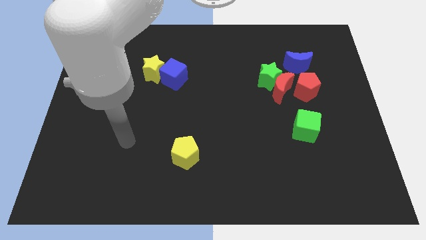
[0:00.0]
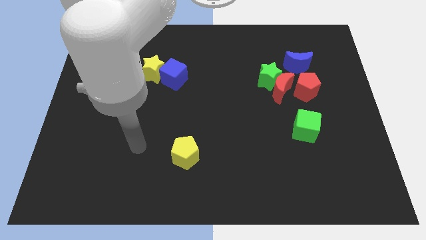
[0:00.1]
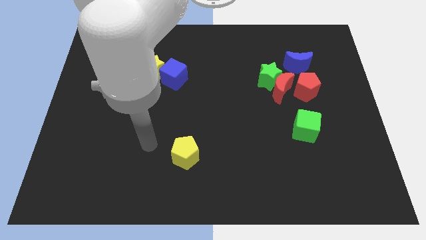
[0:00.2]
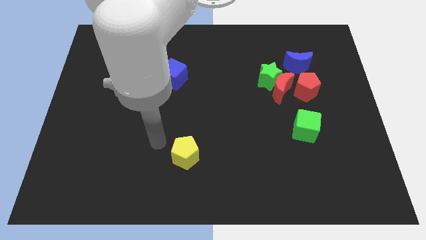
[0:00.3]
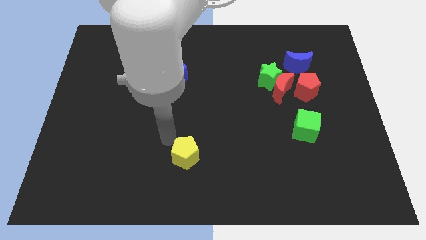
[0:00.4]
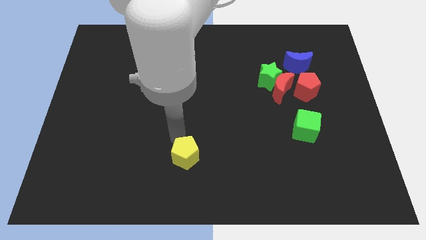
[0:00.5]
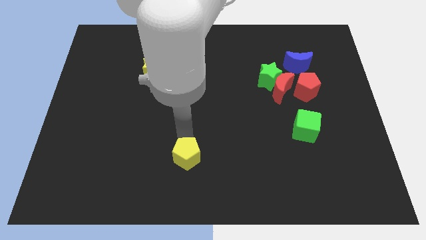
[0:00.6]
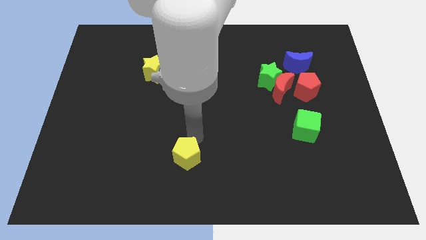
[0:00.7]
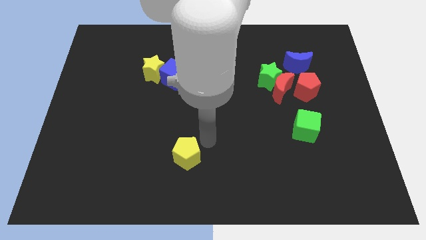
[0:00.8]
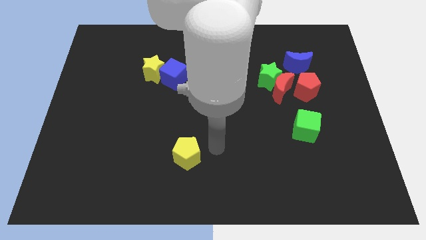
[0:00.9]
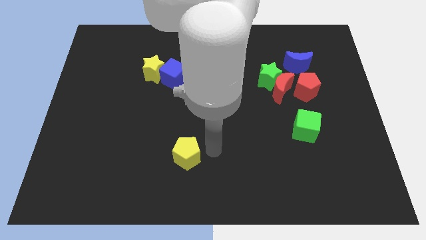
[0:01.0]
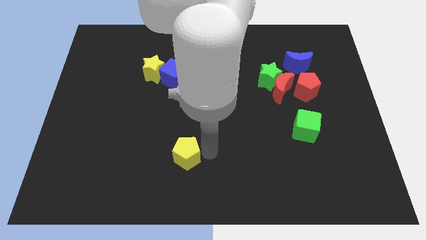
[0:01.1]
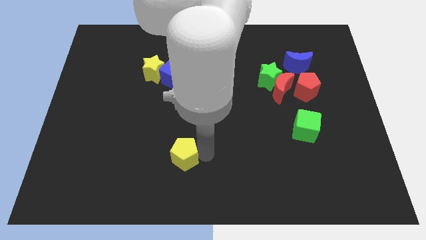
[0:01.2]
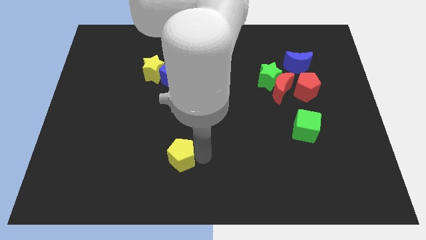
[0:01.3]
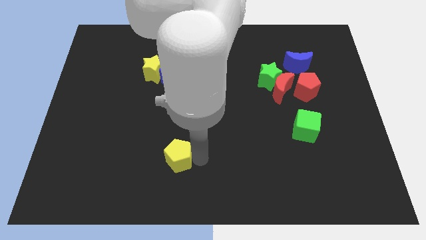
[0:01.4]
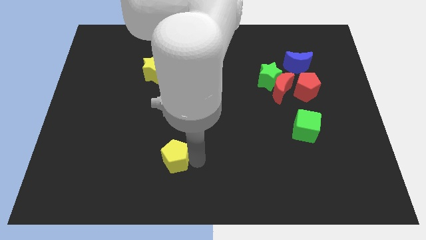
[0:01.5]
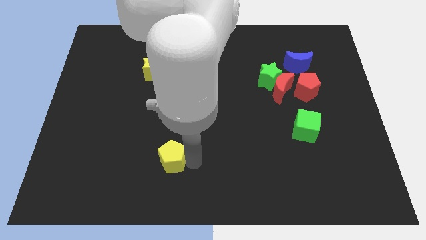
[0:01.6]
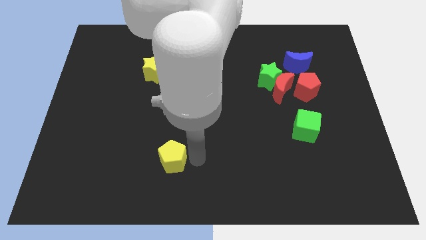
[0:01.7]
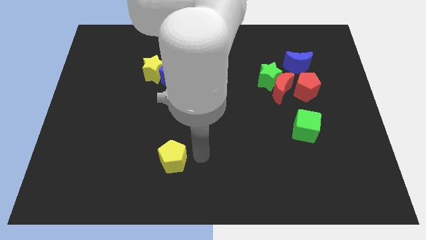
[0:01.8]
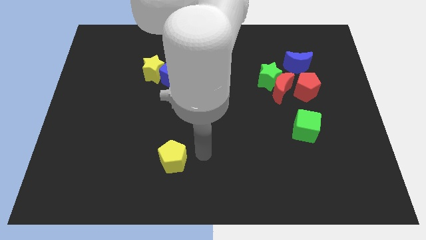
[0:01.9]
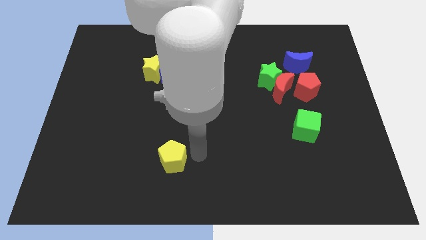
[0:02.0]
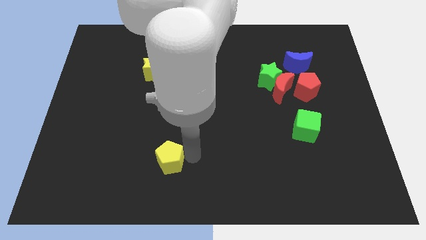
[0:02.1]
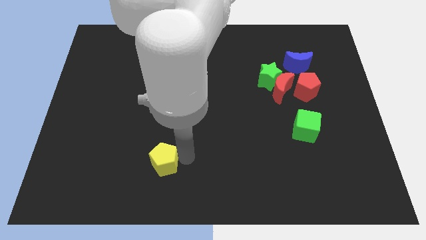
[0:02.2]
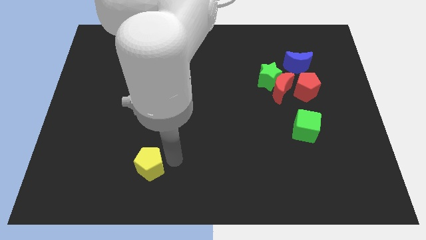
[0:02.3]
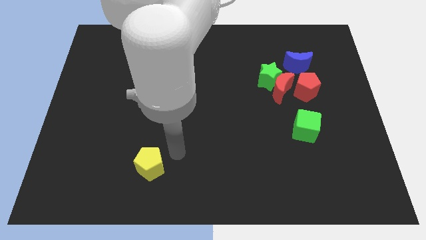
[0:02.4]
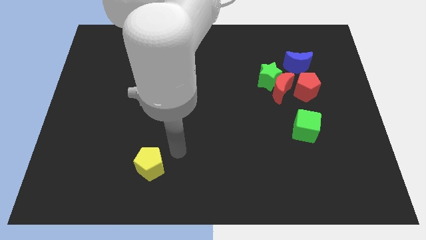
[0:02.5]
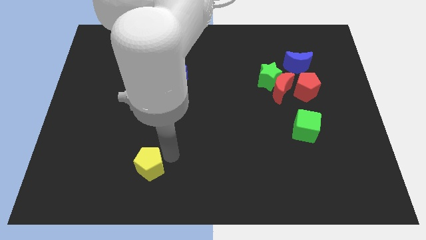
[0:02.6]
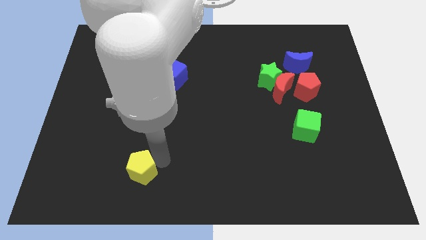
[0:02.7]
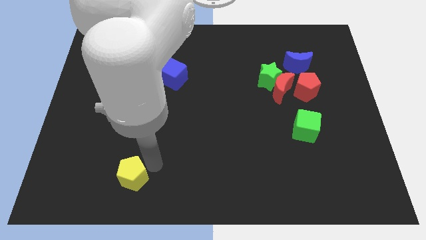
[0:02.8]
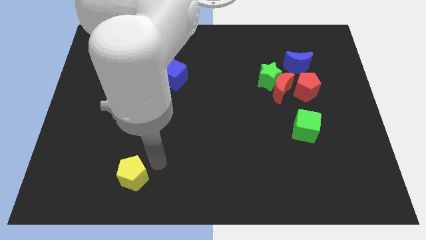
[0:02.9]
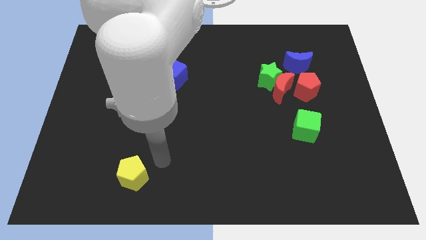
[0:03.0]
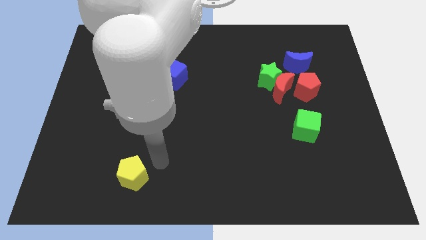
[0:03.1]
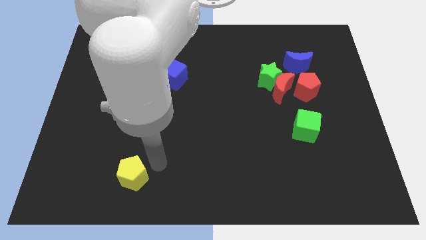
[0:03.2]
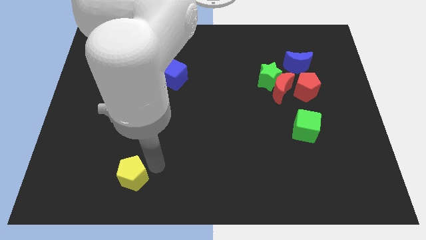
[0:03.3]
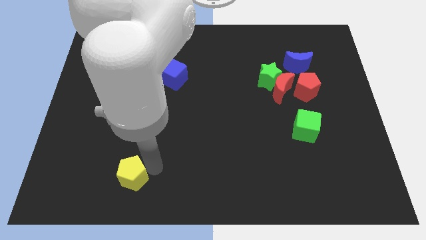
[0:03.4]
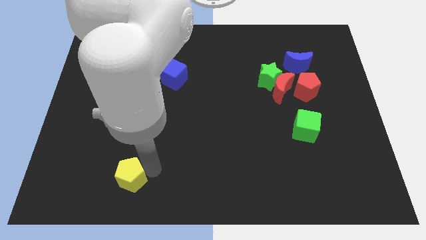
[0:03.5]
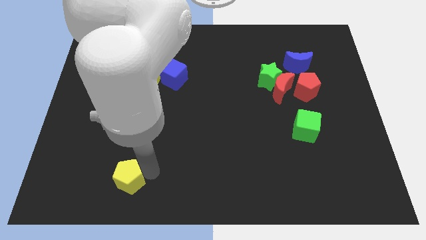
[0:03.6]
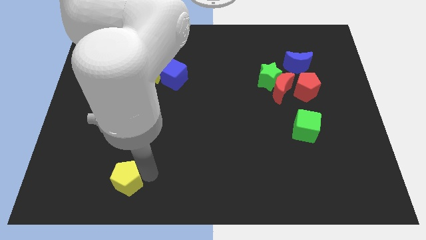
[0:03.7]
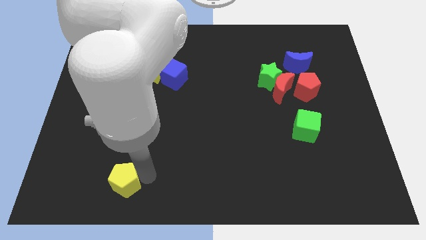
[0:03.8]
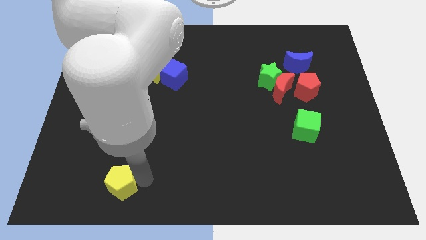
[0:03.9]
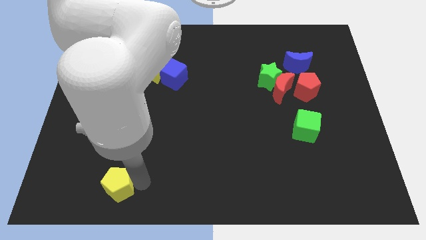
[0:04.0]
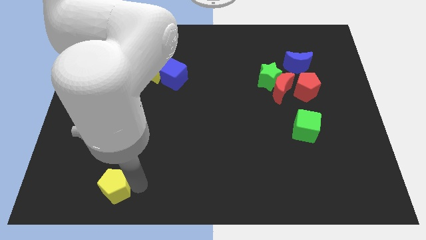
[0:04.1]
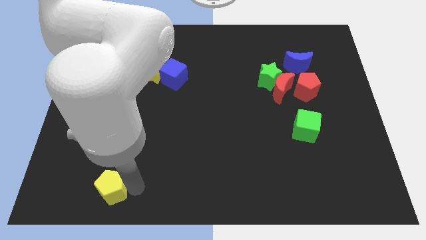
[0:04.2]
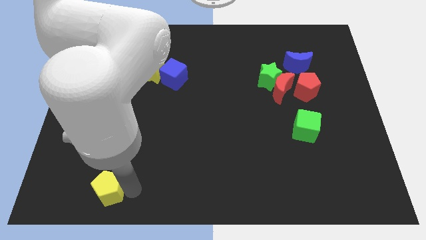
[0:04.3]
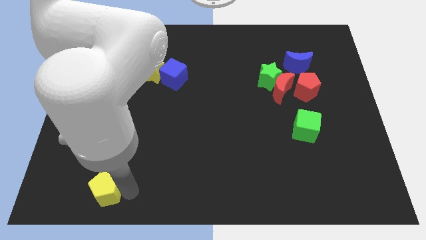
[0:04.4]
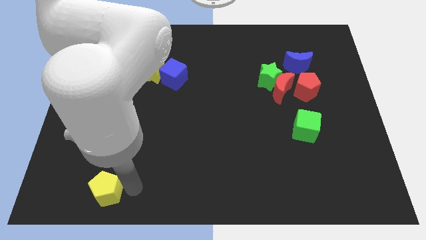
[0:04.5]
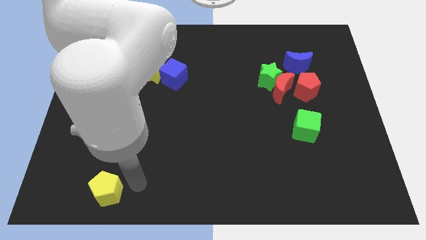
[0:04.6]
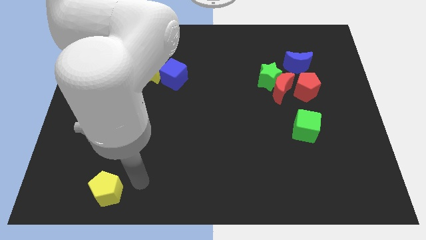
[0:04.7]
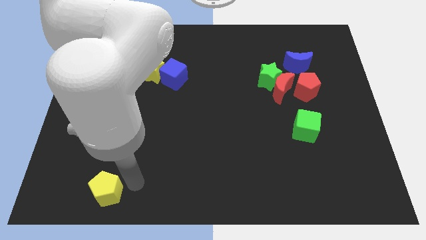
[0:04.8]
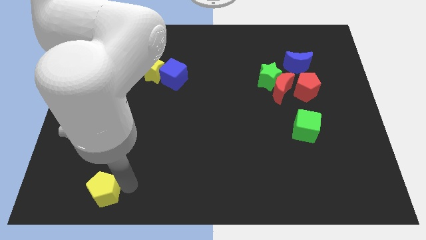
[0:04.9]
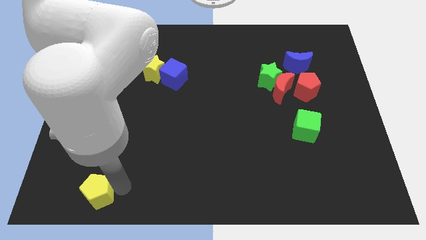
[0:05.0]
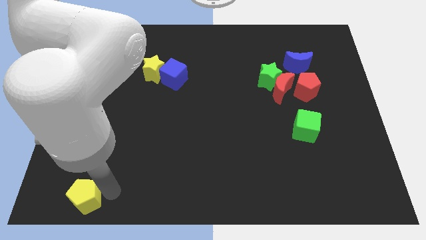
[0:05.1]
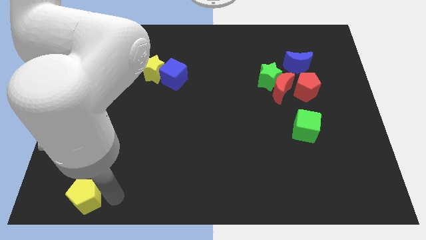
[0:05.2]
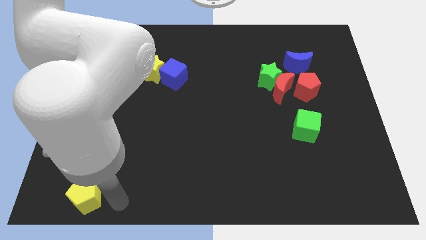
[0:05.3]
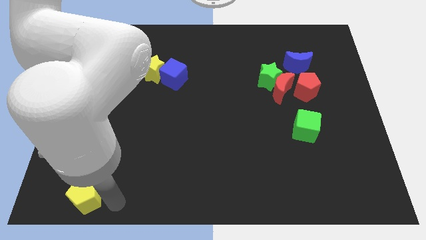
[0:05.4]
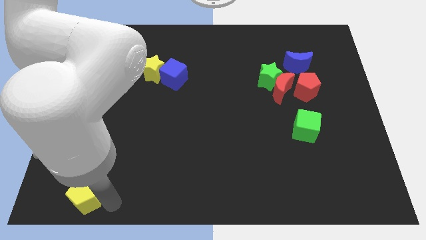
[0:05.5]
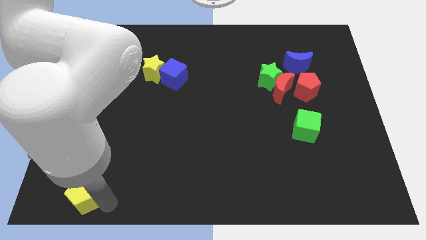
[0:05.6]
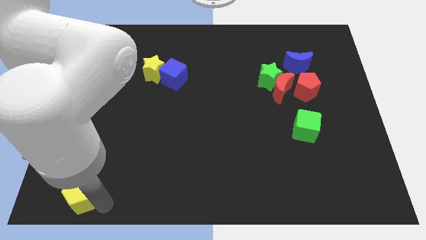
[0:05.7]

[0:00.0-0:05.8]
slide the yellow pentagon to the bottom left corner
